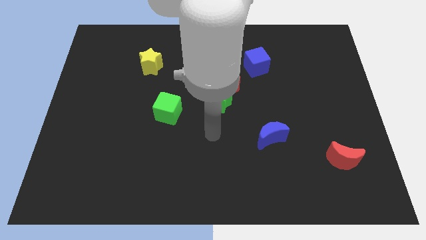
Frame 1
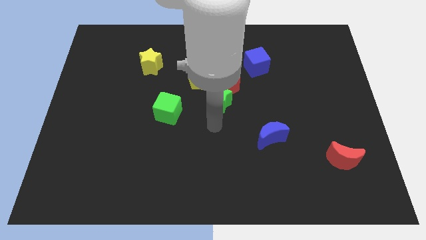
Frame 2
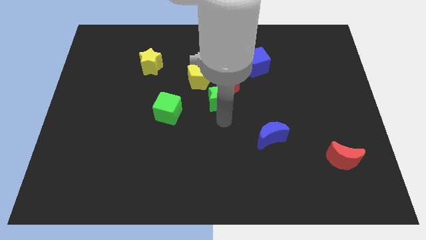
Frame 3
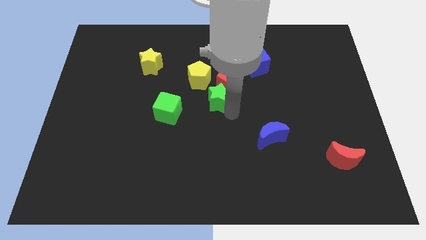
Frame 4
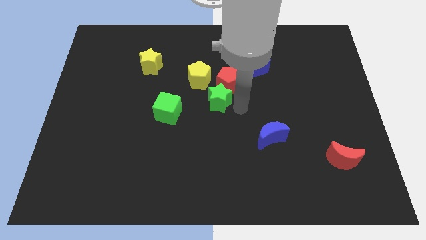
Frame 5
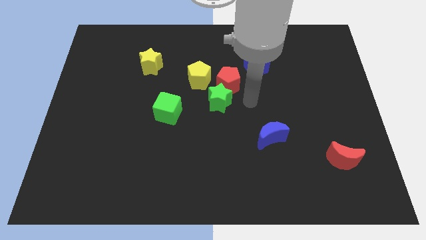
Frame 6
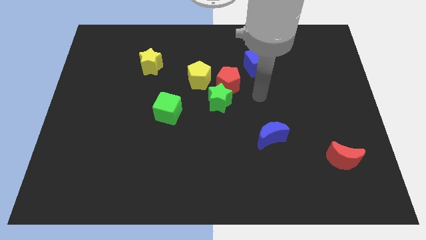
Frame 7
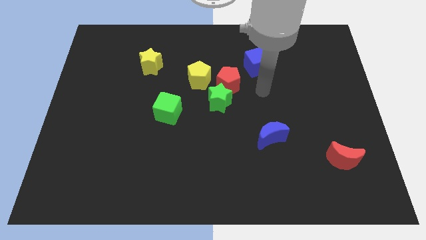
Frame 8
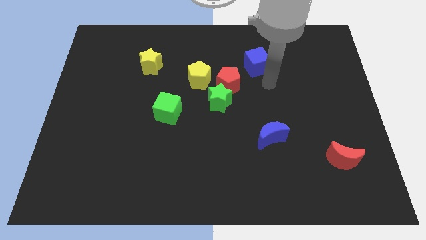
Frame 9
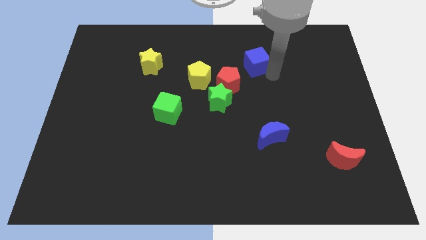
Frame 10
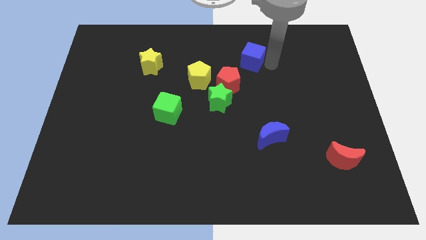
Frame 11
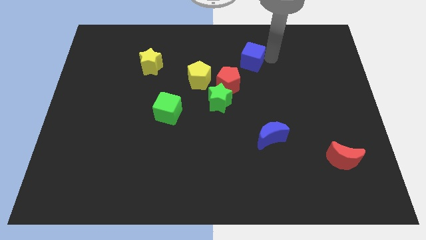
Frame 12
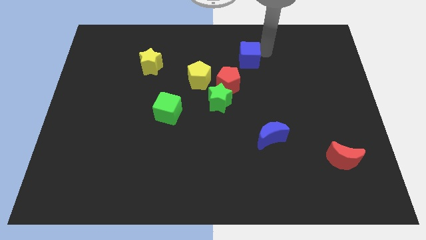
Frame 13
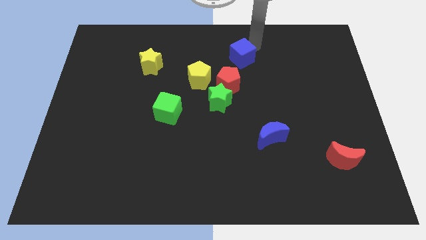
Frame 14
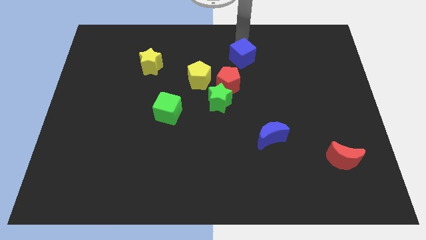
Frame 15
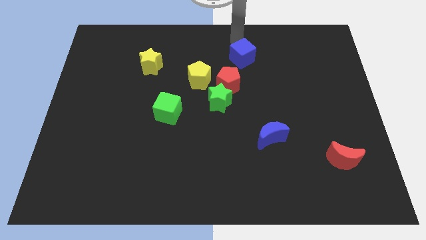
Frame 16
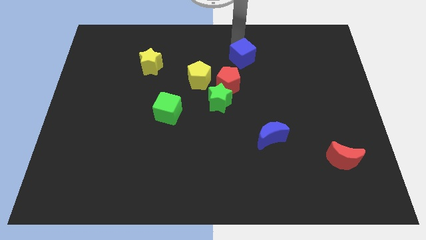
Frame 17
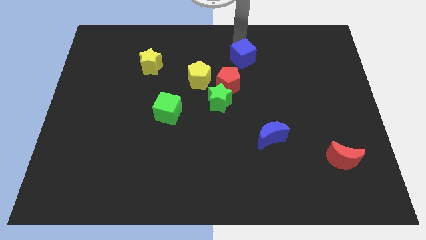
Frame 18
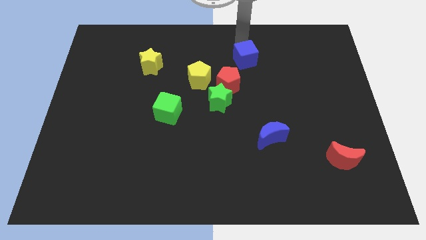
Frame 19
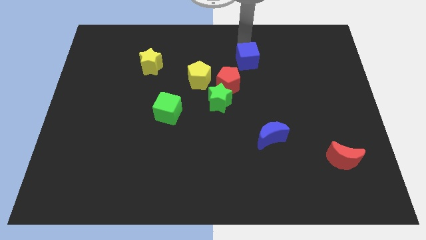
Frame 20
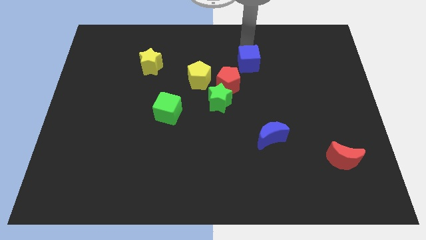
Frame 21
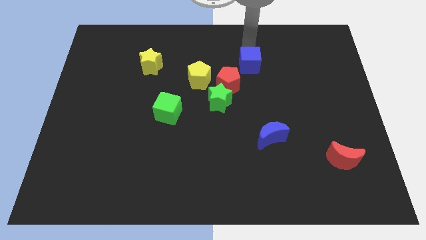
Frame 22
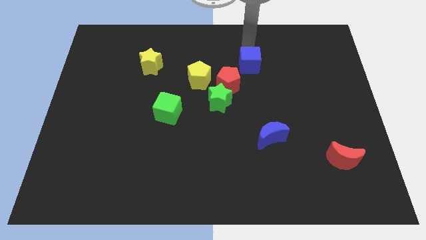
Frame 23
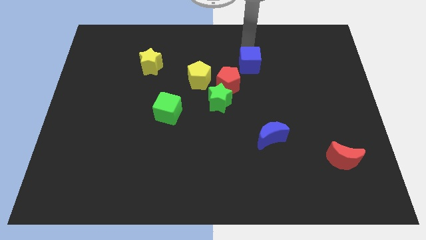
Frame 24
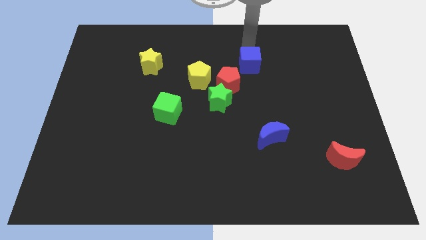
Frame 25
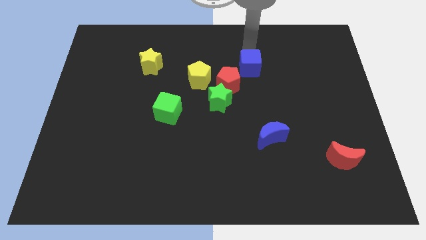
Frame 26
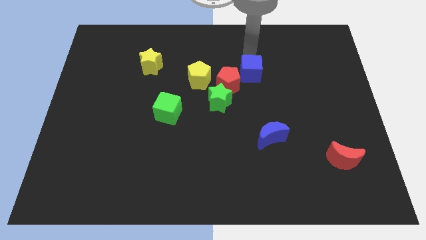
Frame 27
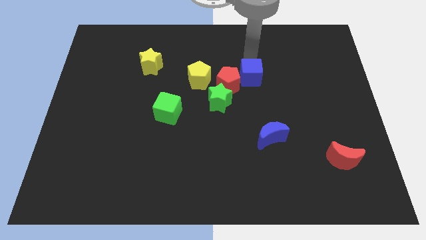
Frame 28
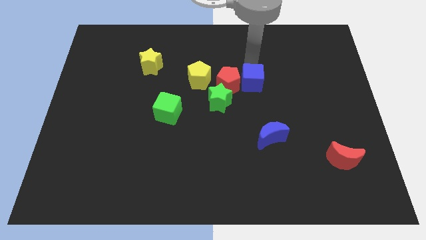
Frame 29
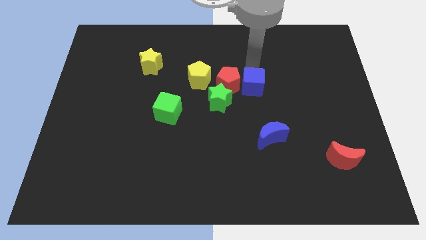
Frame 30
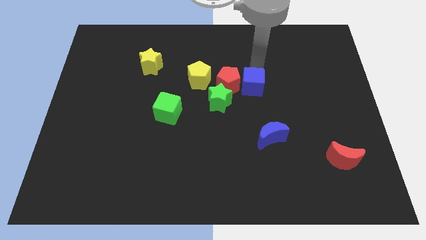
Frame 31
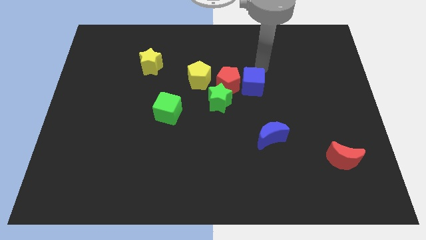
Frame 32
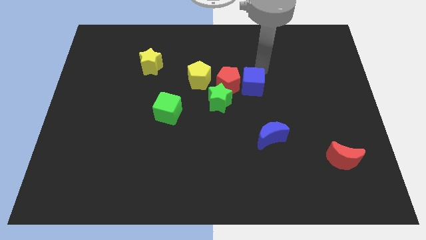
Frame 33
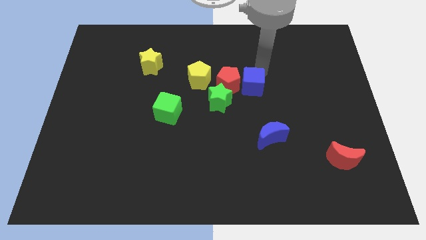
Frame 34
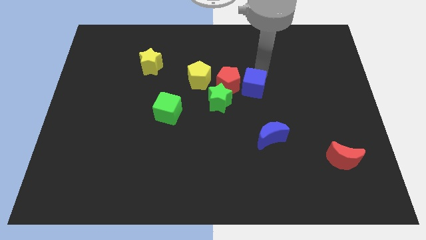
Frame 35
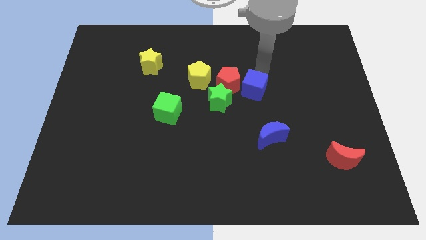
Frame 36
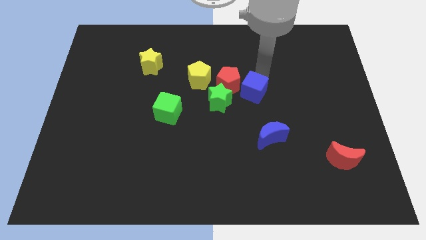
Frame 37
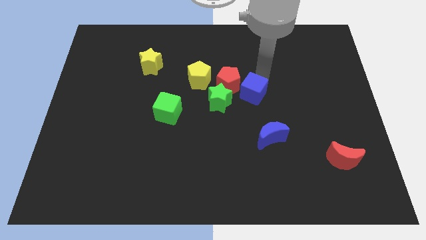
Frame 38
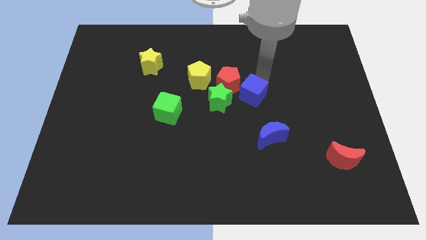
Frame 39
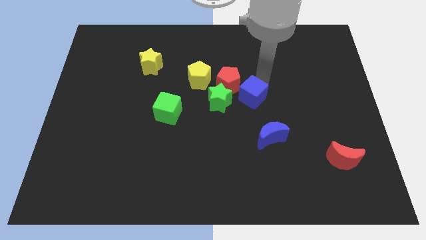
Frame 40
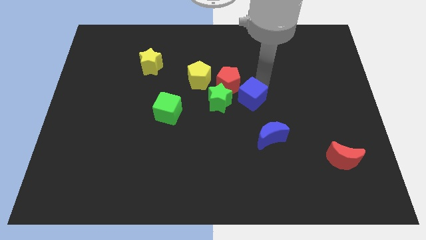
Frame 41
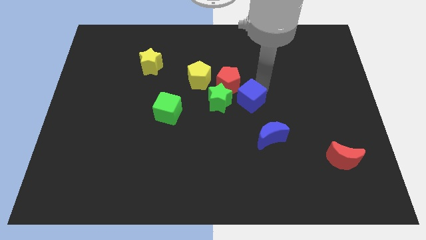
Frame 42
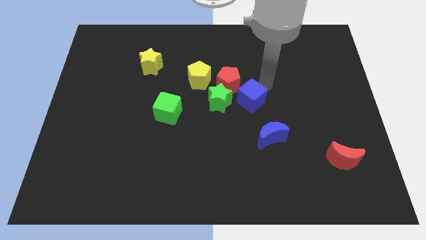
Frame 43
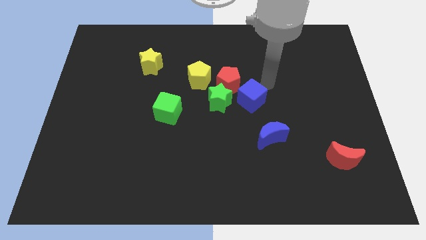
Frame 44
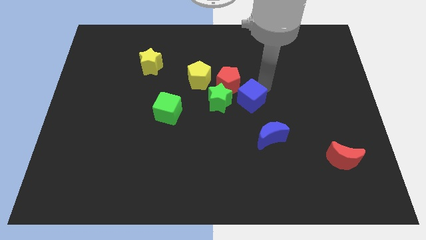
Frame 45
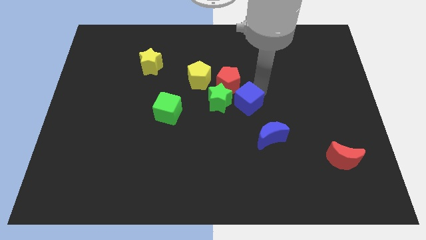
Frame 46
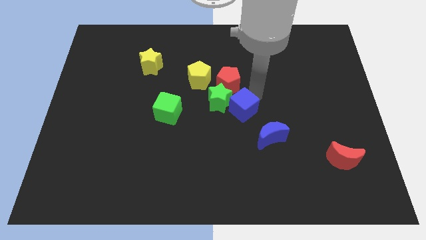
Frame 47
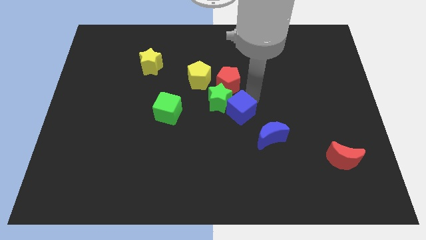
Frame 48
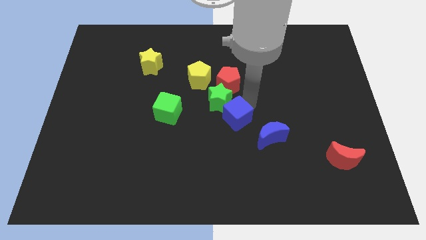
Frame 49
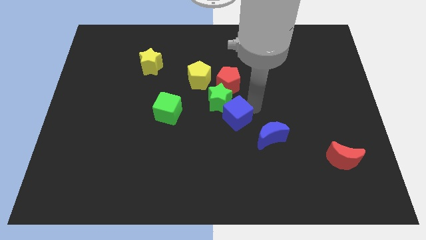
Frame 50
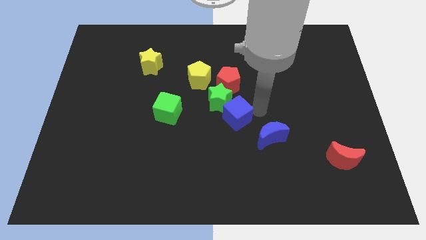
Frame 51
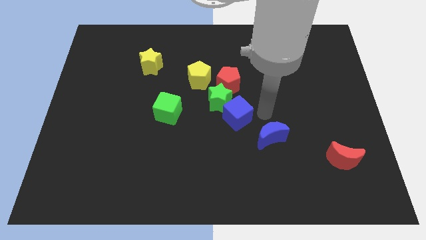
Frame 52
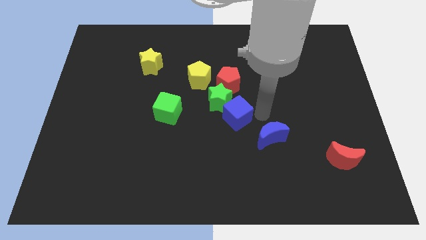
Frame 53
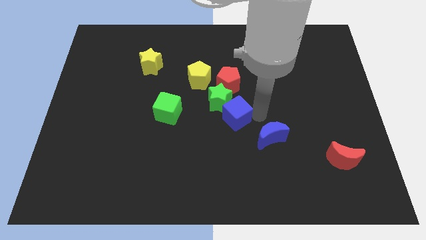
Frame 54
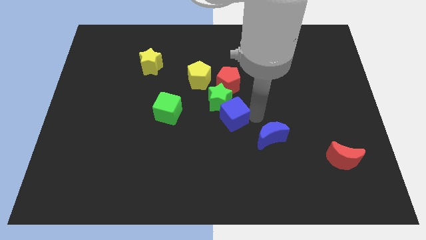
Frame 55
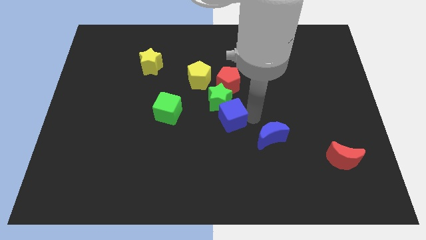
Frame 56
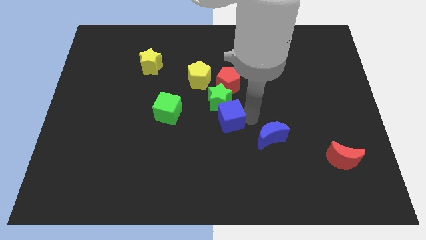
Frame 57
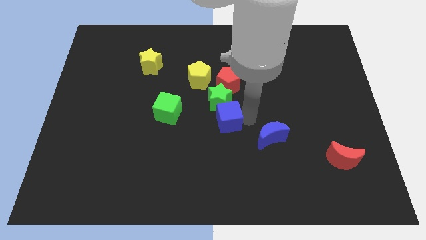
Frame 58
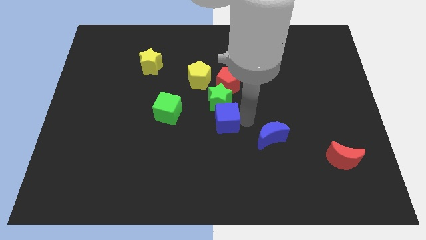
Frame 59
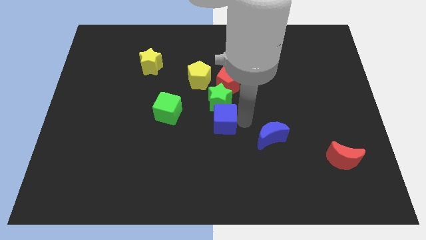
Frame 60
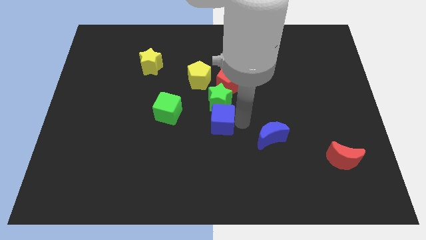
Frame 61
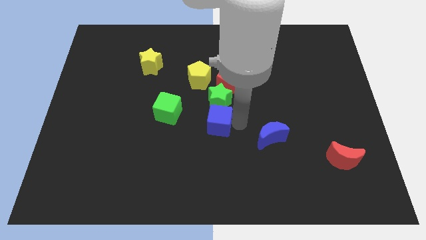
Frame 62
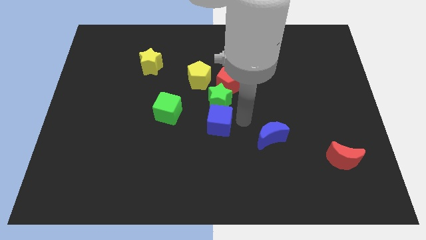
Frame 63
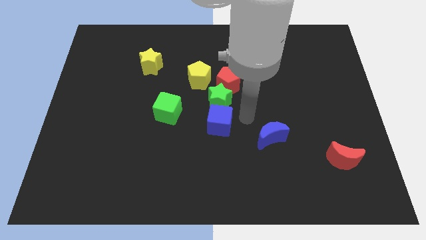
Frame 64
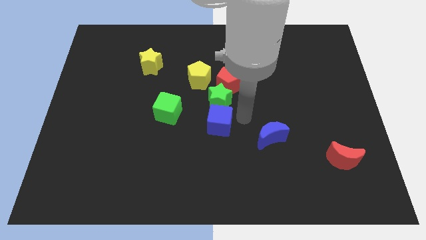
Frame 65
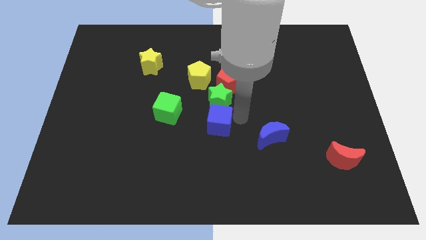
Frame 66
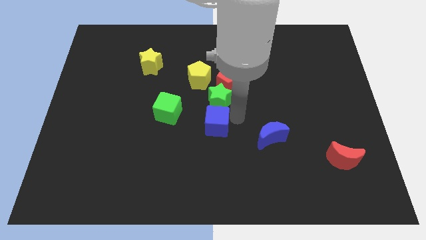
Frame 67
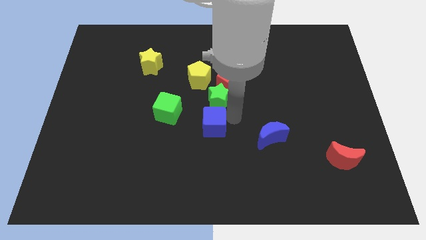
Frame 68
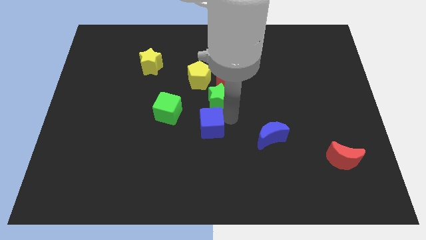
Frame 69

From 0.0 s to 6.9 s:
slide the blue cube to the bottom right side of the green cube
